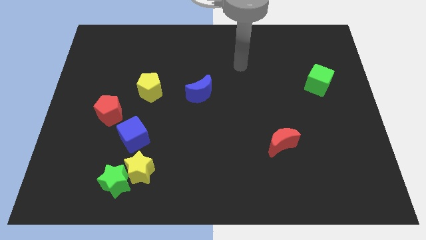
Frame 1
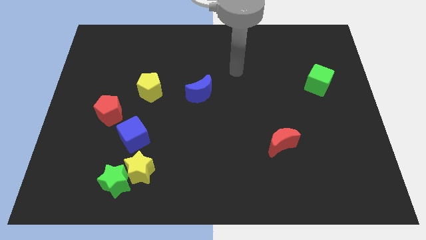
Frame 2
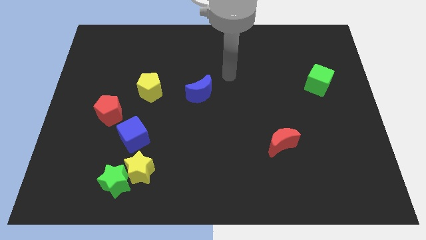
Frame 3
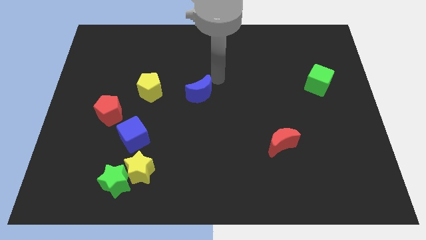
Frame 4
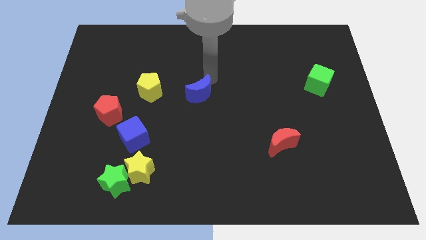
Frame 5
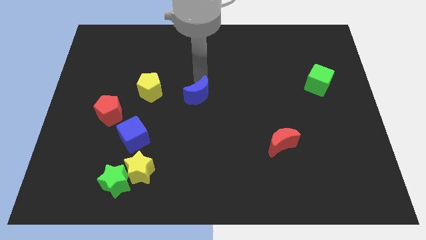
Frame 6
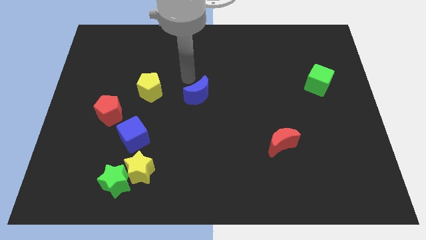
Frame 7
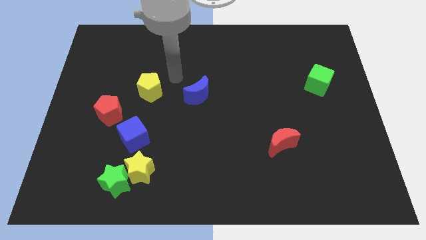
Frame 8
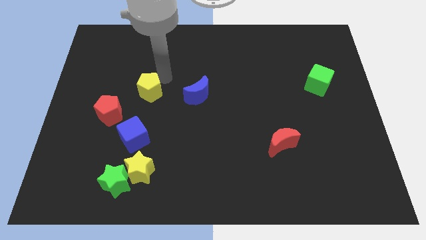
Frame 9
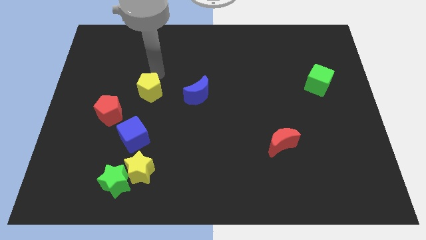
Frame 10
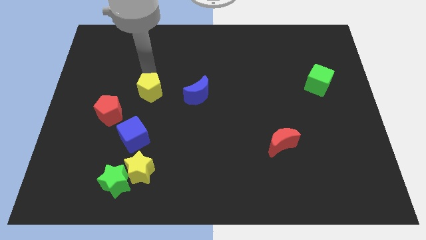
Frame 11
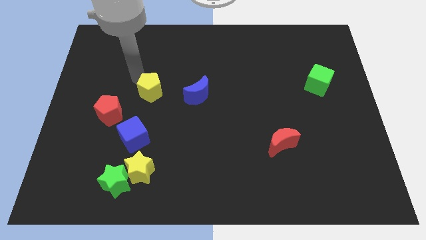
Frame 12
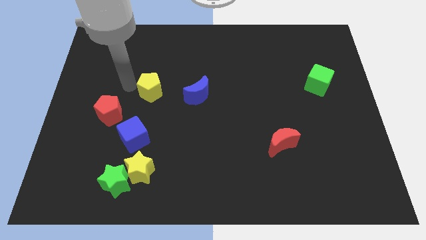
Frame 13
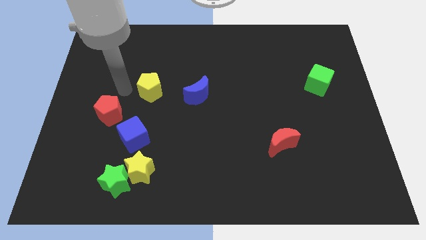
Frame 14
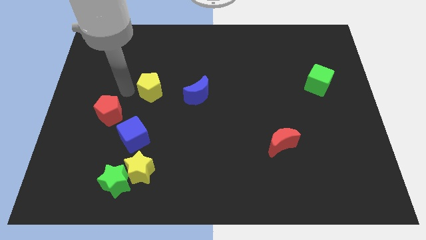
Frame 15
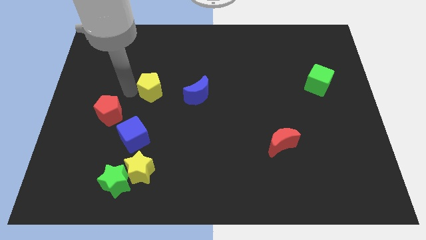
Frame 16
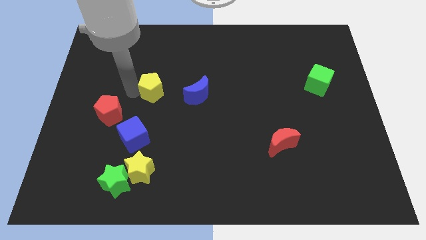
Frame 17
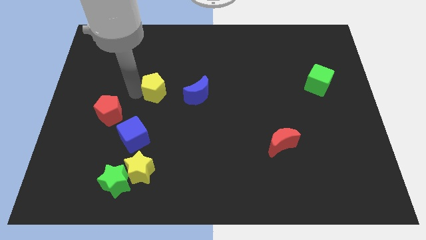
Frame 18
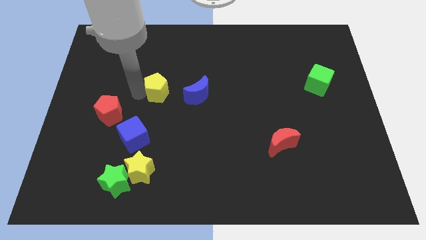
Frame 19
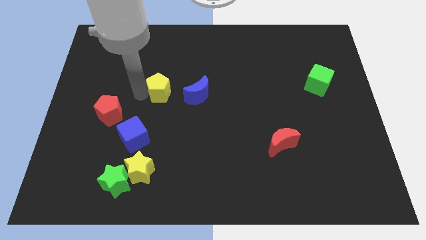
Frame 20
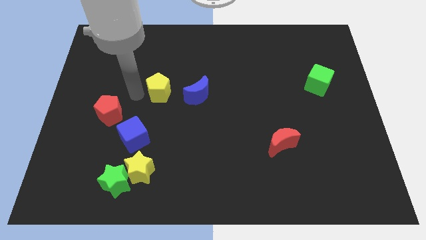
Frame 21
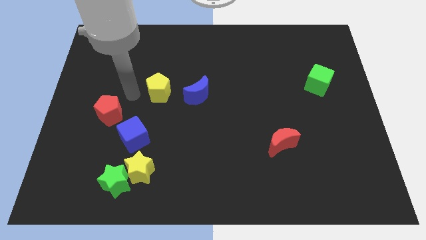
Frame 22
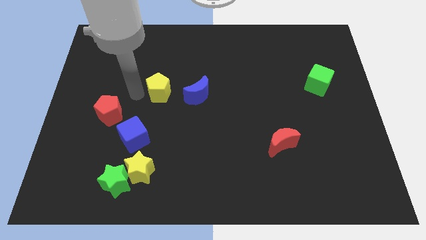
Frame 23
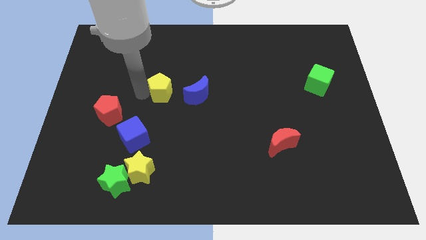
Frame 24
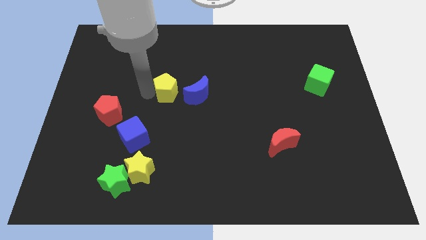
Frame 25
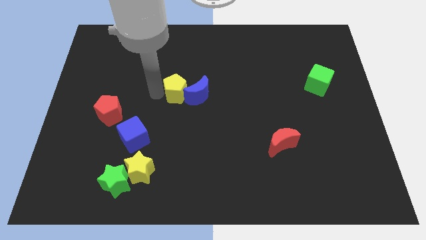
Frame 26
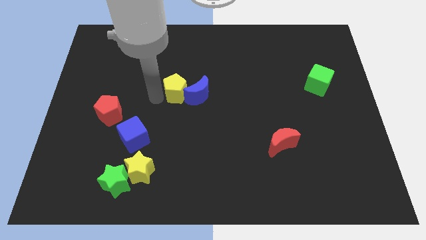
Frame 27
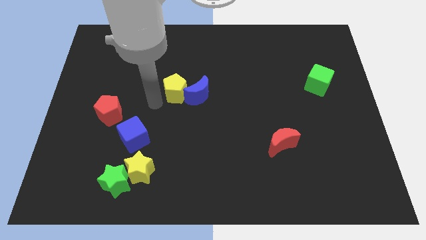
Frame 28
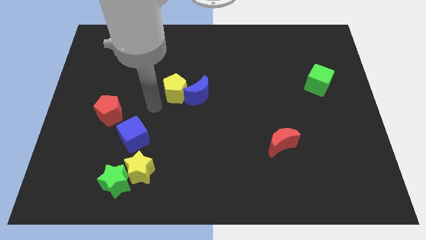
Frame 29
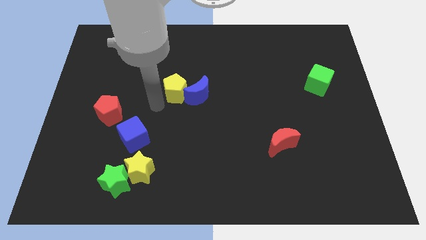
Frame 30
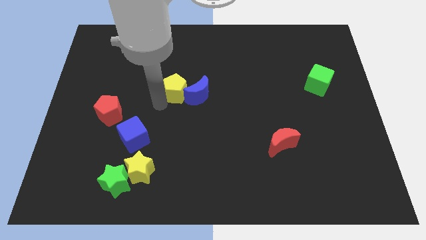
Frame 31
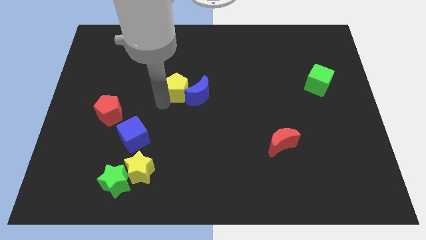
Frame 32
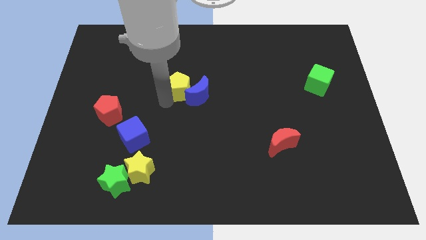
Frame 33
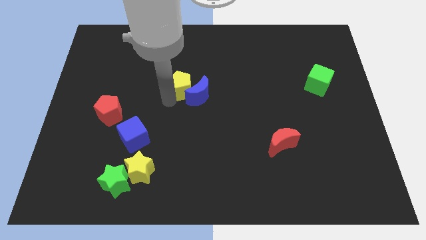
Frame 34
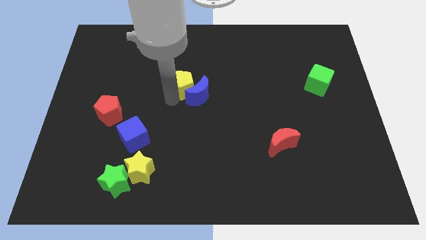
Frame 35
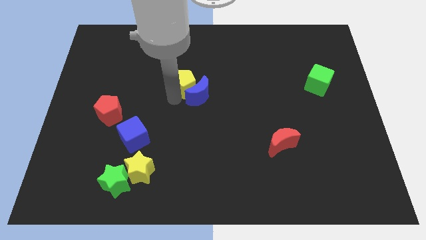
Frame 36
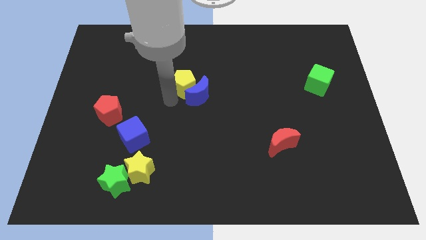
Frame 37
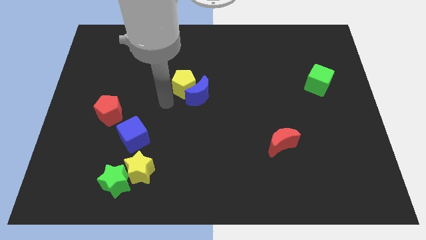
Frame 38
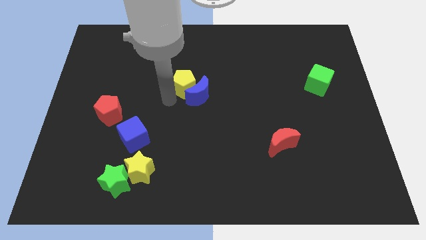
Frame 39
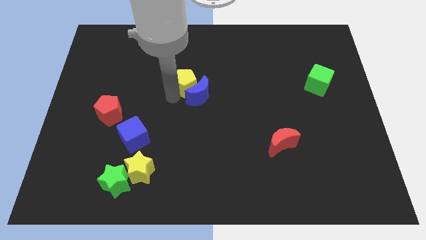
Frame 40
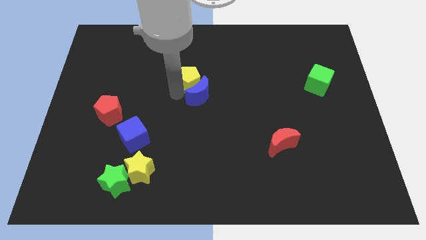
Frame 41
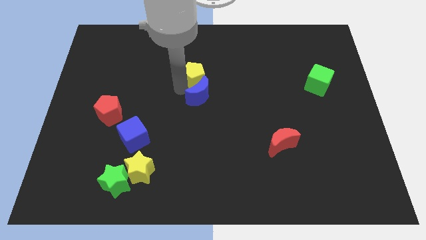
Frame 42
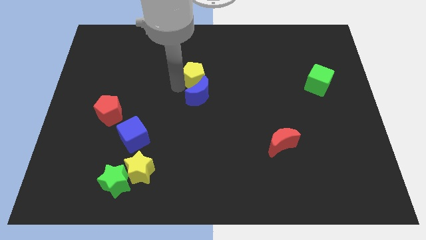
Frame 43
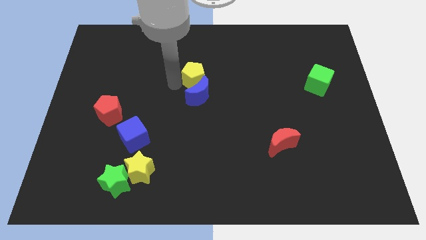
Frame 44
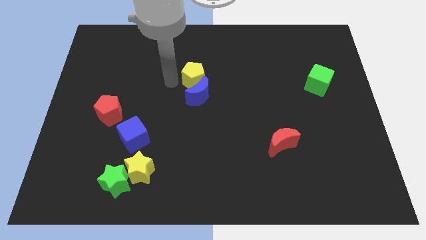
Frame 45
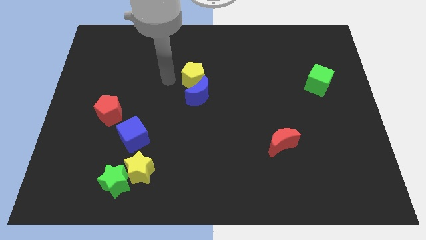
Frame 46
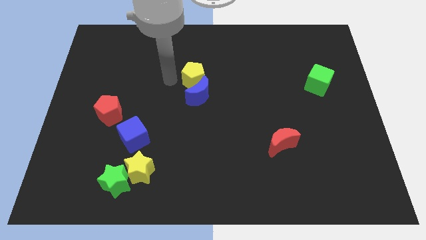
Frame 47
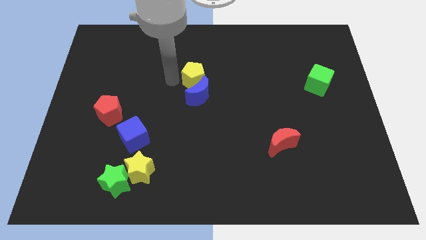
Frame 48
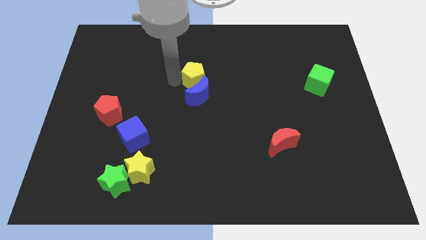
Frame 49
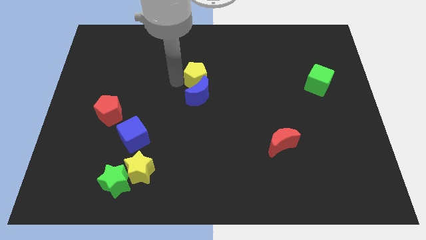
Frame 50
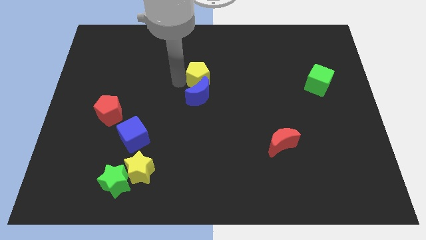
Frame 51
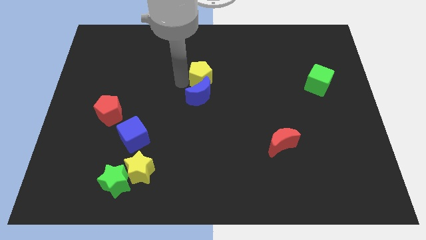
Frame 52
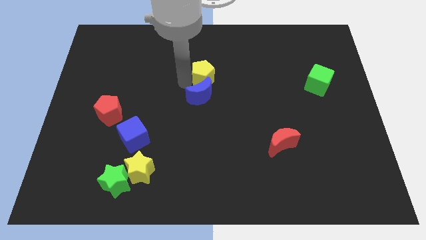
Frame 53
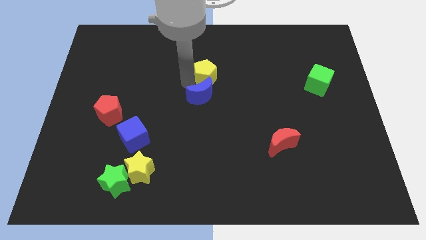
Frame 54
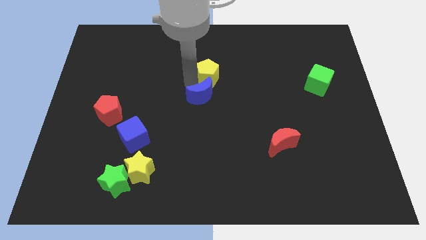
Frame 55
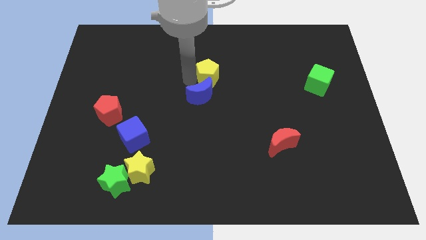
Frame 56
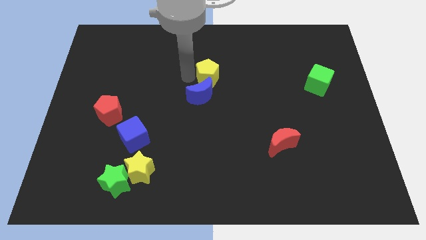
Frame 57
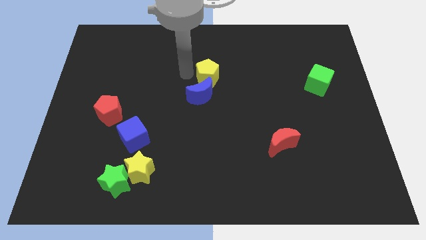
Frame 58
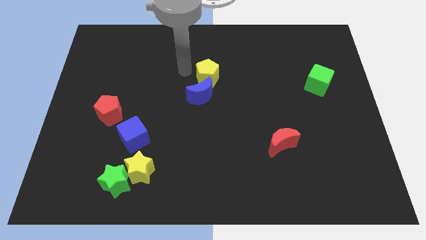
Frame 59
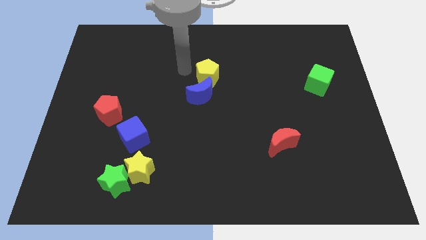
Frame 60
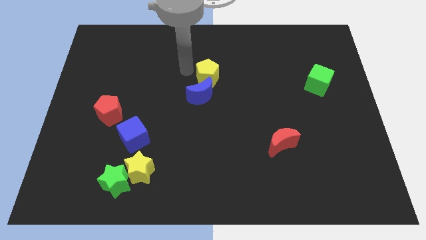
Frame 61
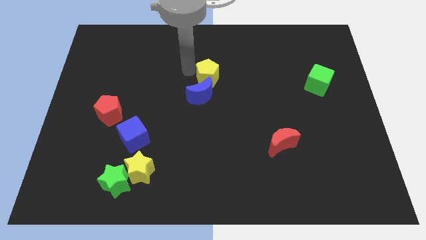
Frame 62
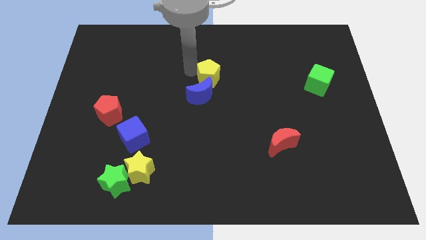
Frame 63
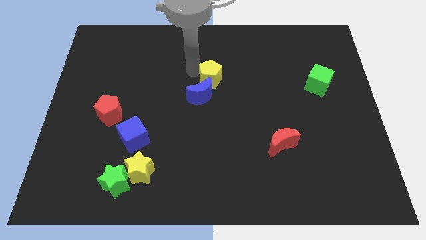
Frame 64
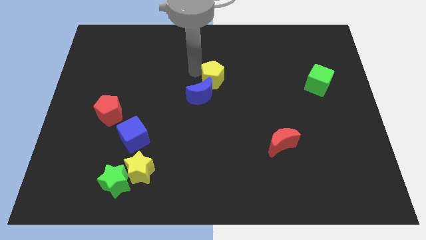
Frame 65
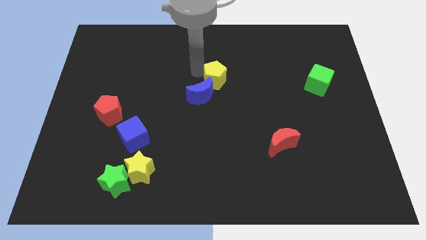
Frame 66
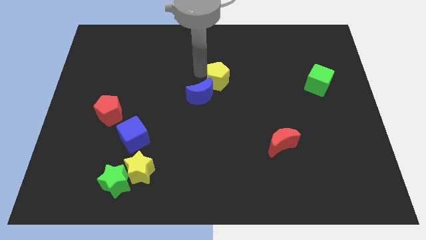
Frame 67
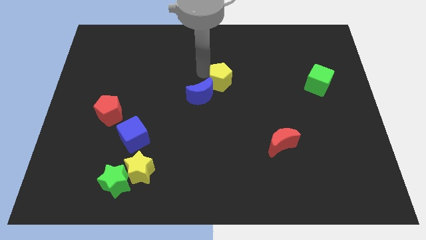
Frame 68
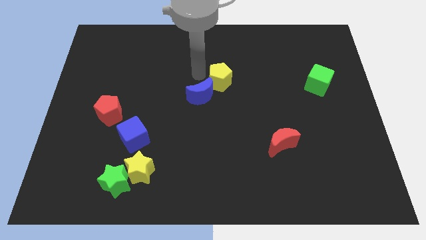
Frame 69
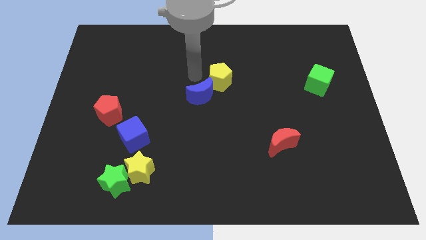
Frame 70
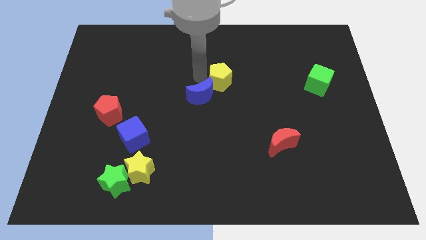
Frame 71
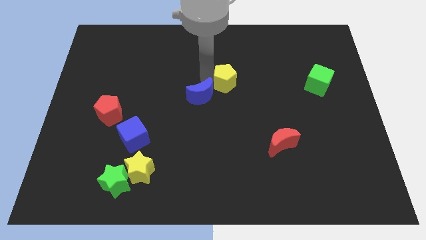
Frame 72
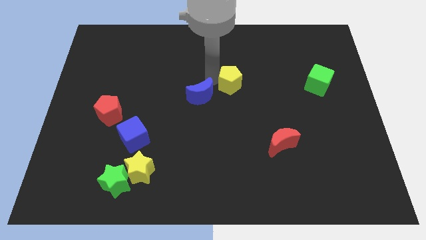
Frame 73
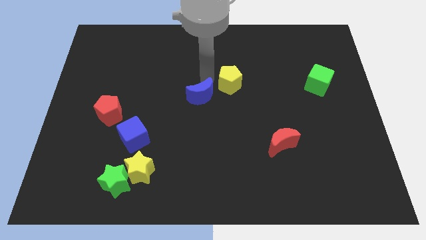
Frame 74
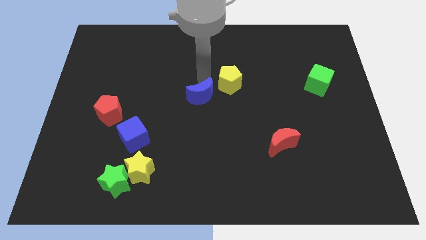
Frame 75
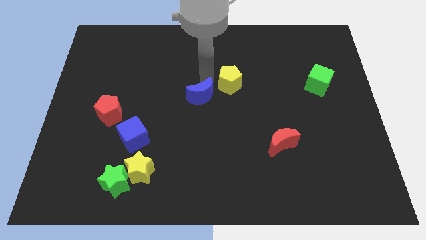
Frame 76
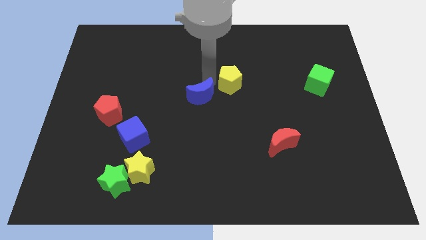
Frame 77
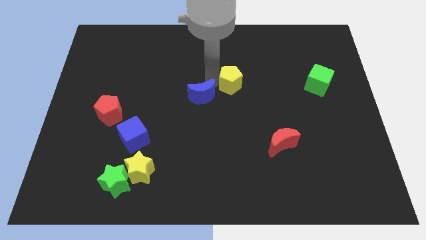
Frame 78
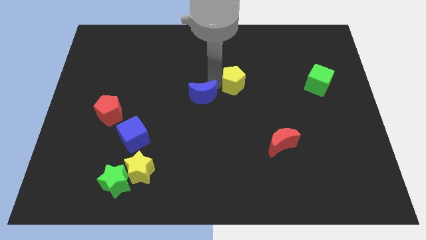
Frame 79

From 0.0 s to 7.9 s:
move the yellow pentagon right
